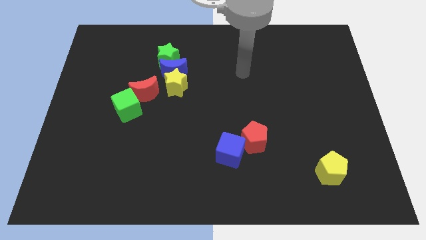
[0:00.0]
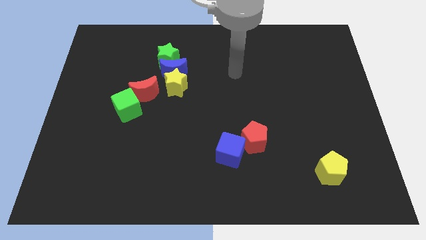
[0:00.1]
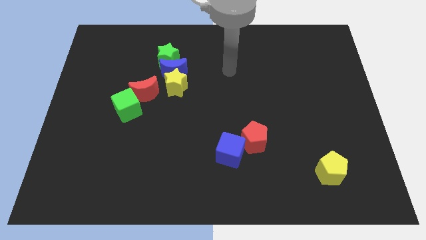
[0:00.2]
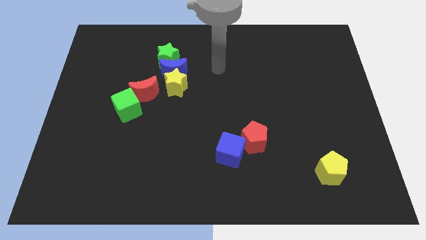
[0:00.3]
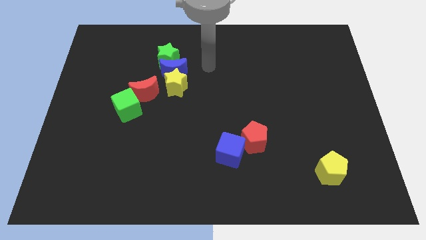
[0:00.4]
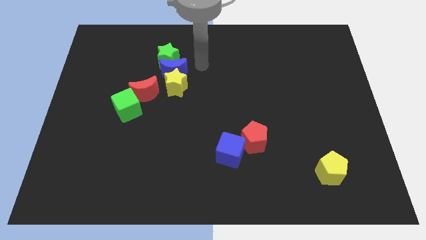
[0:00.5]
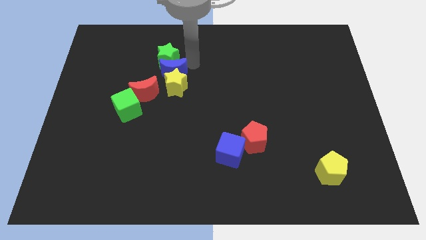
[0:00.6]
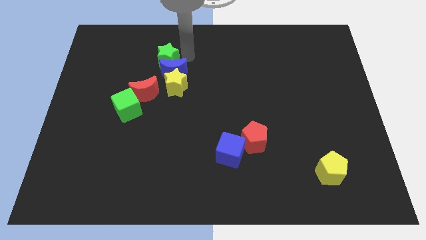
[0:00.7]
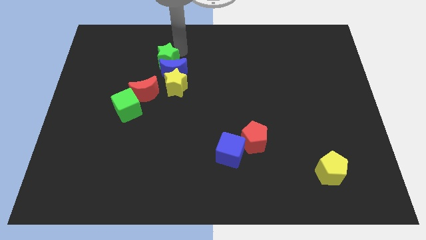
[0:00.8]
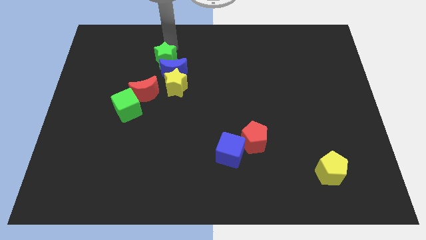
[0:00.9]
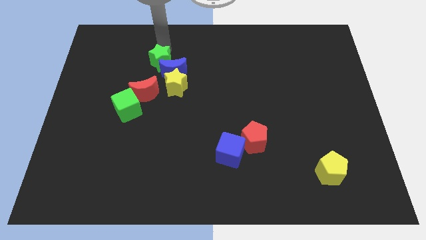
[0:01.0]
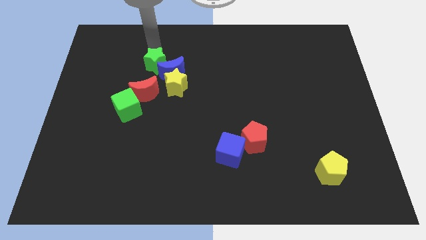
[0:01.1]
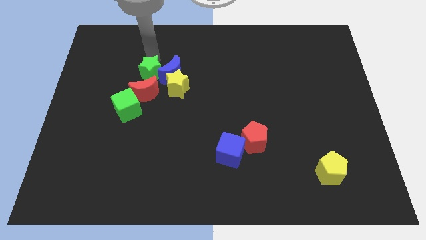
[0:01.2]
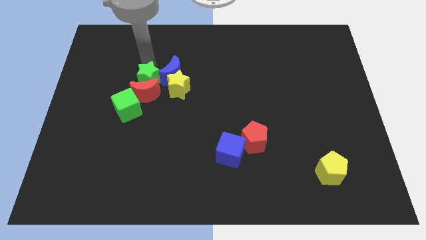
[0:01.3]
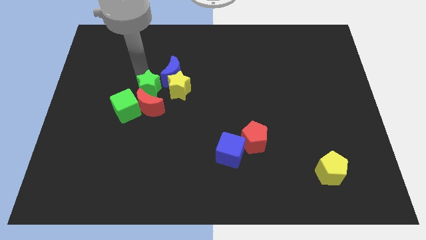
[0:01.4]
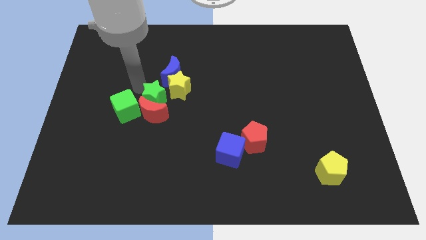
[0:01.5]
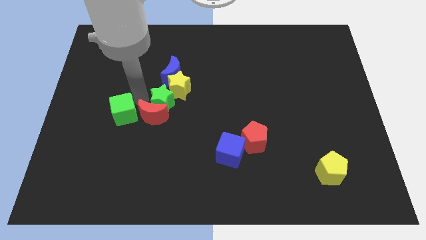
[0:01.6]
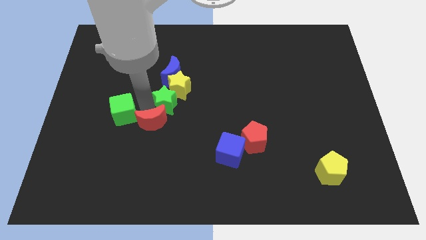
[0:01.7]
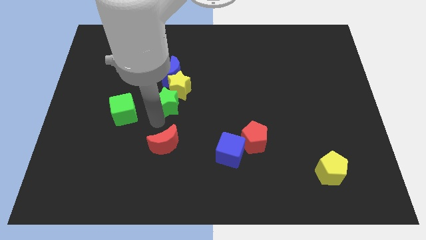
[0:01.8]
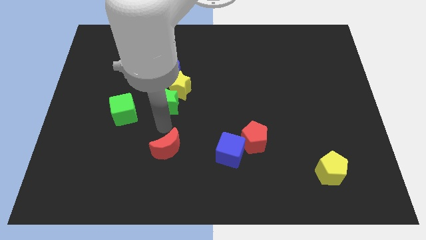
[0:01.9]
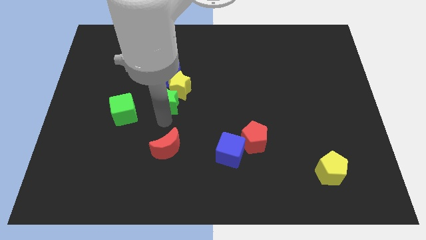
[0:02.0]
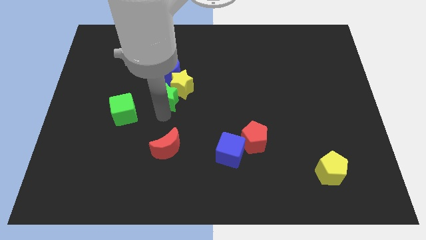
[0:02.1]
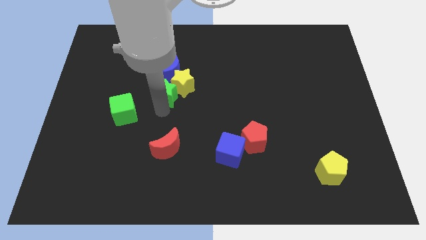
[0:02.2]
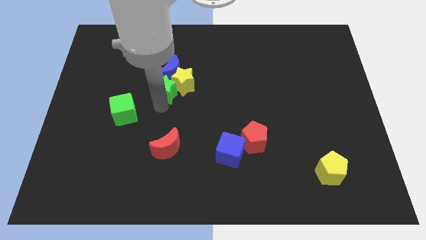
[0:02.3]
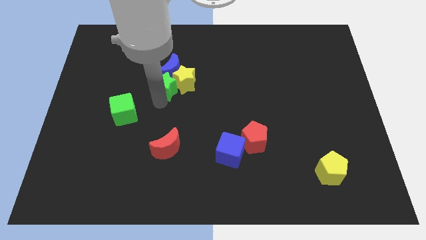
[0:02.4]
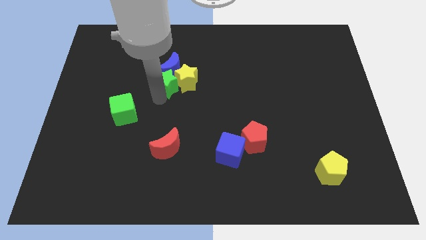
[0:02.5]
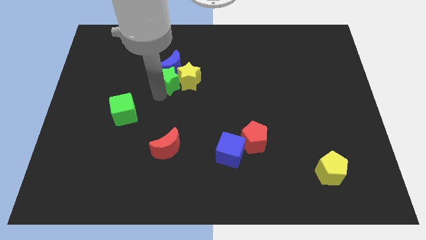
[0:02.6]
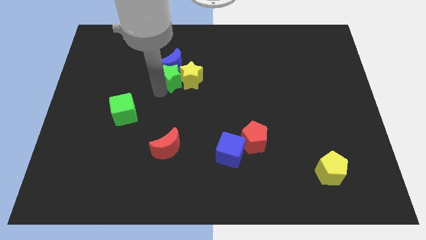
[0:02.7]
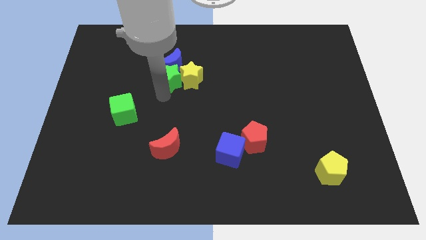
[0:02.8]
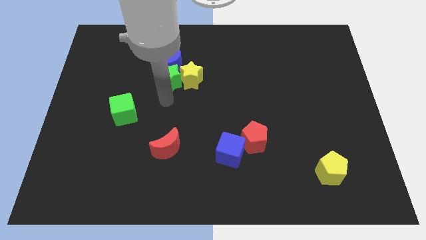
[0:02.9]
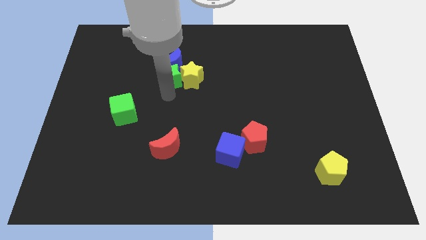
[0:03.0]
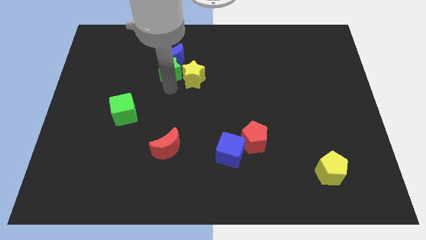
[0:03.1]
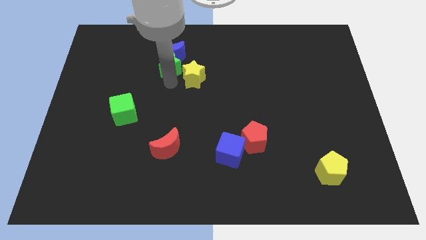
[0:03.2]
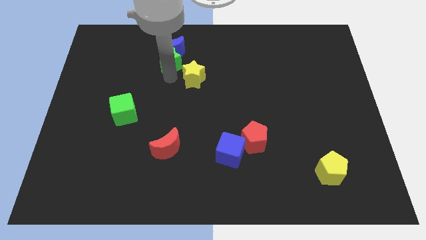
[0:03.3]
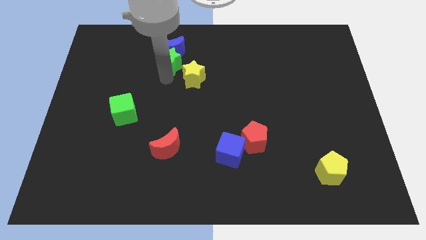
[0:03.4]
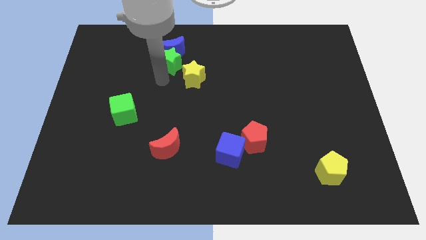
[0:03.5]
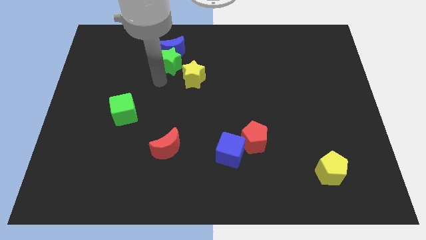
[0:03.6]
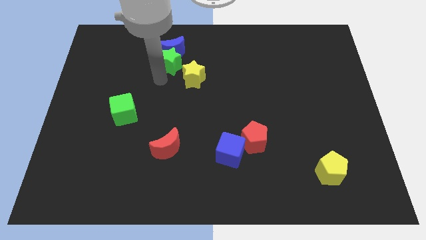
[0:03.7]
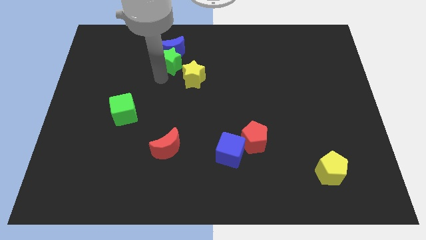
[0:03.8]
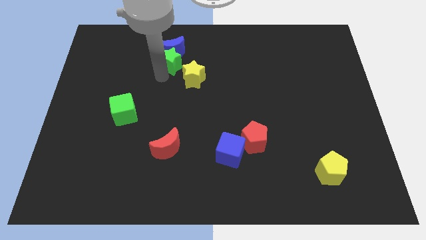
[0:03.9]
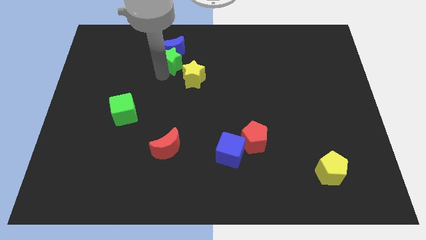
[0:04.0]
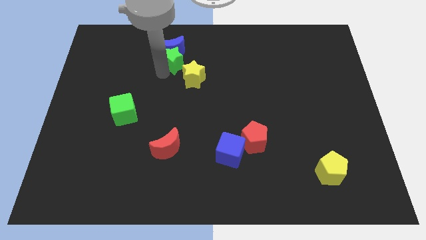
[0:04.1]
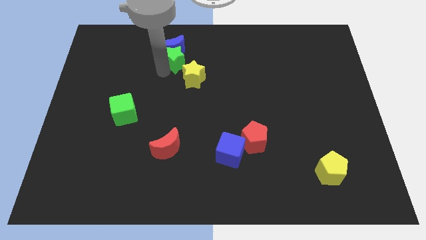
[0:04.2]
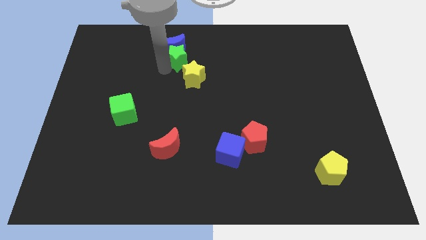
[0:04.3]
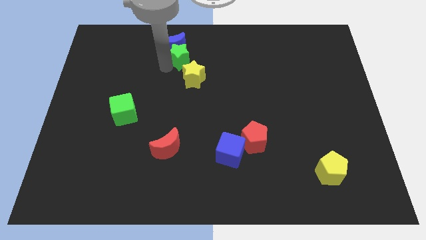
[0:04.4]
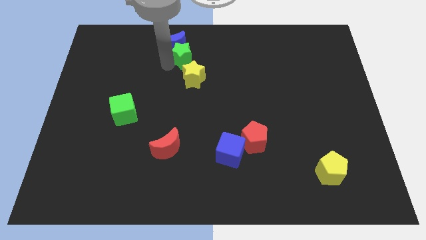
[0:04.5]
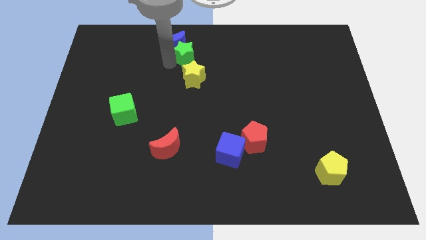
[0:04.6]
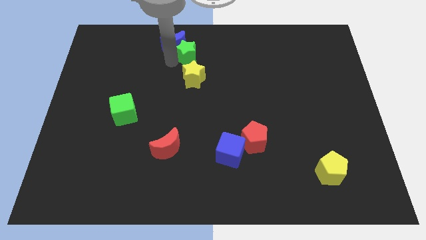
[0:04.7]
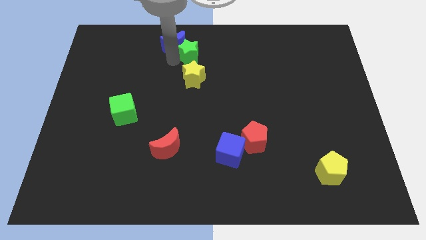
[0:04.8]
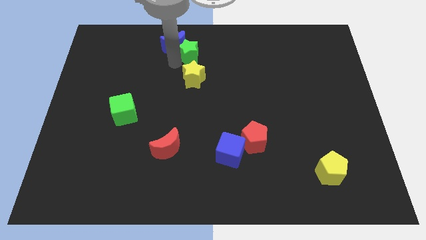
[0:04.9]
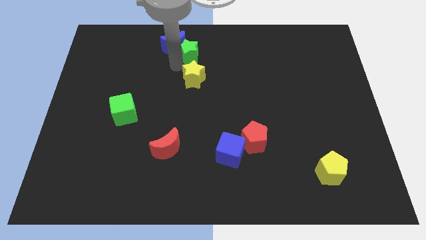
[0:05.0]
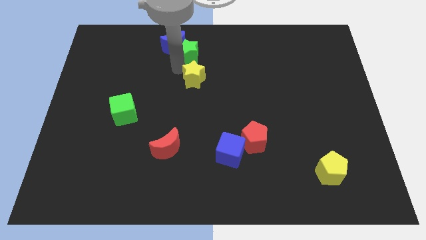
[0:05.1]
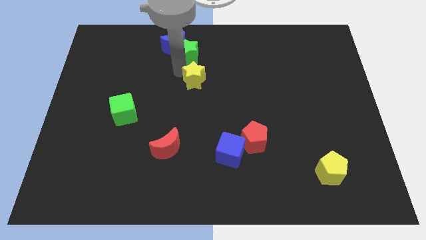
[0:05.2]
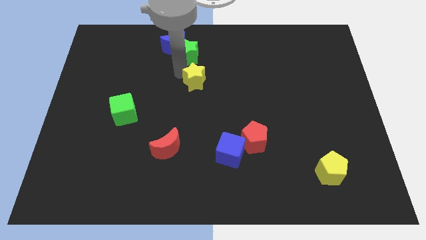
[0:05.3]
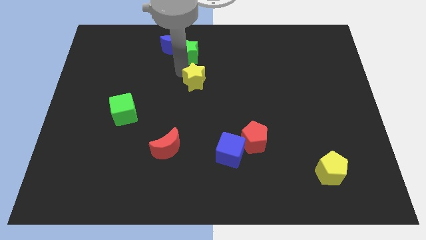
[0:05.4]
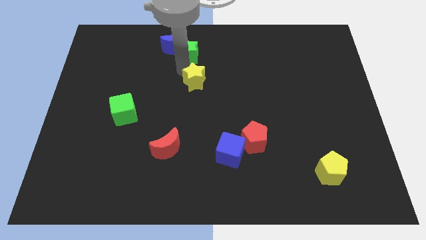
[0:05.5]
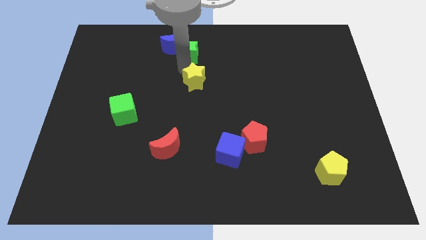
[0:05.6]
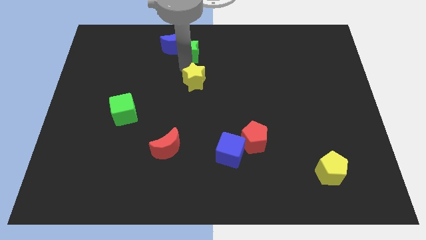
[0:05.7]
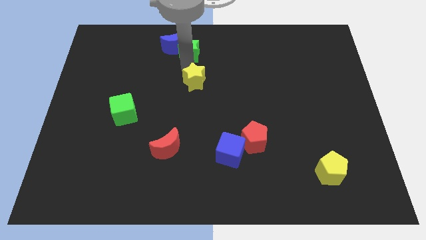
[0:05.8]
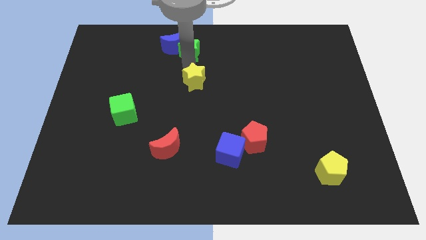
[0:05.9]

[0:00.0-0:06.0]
put the green star to the towards your base

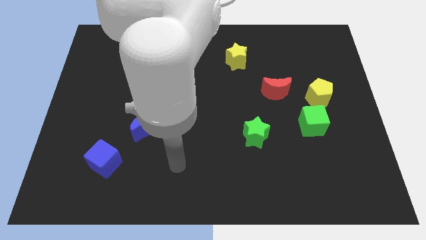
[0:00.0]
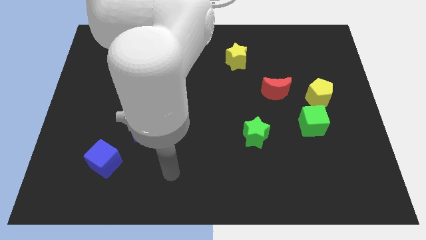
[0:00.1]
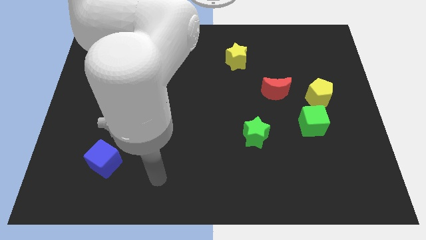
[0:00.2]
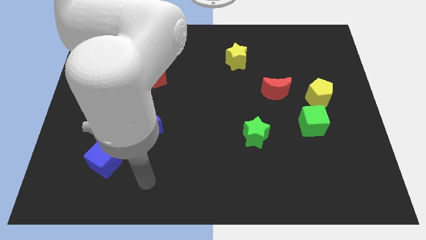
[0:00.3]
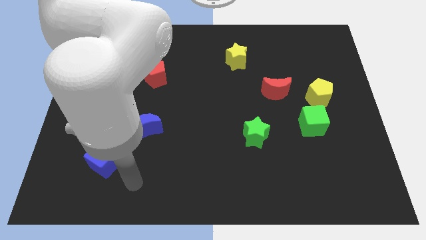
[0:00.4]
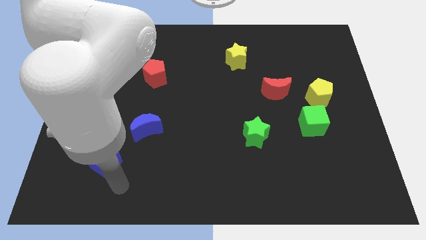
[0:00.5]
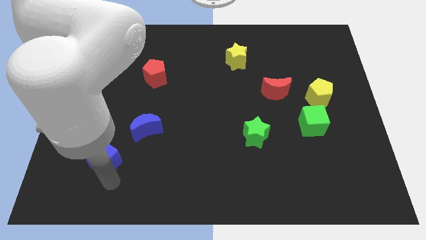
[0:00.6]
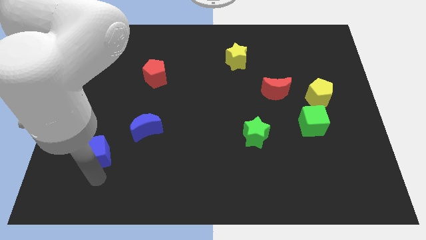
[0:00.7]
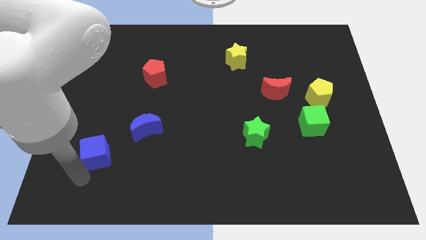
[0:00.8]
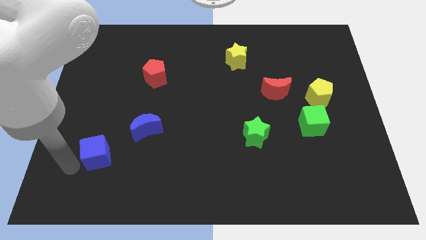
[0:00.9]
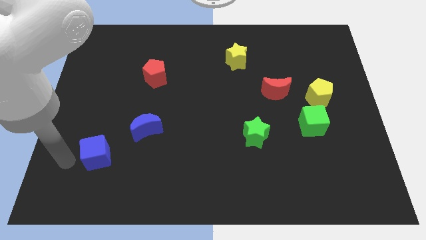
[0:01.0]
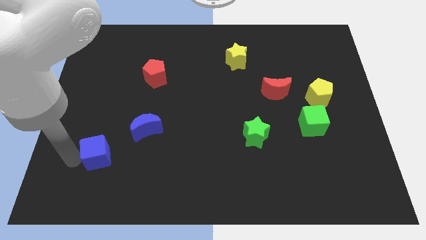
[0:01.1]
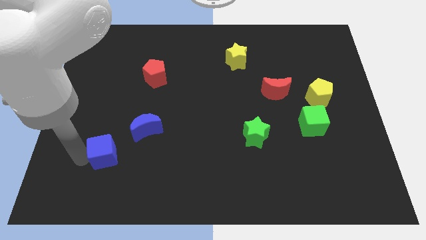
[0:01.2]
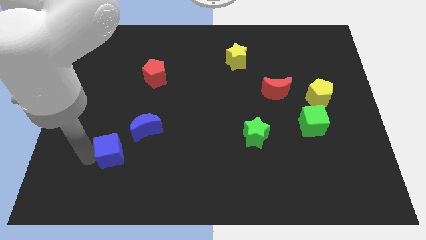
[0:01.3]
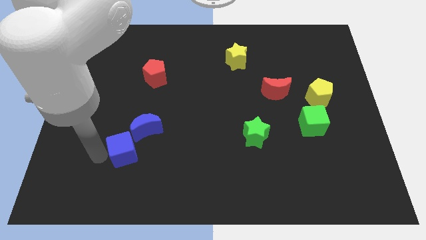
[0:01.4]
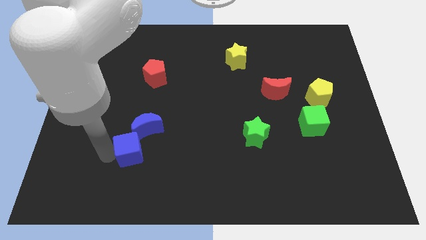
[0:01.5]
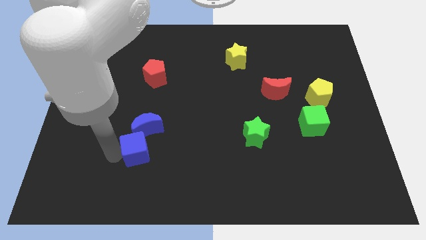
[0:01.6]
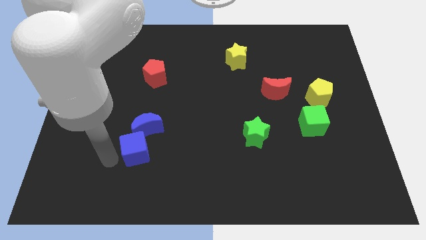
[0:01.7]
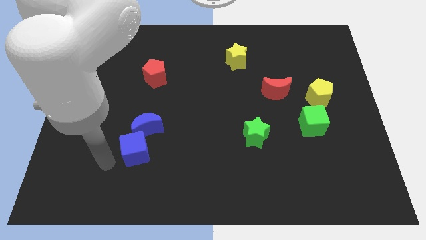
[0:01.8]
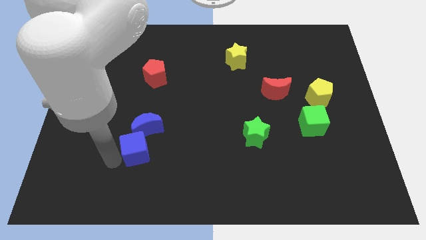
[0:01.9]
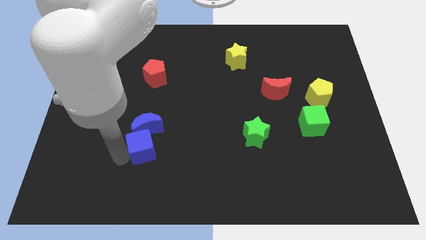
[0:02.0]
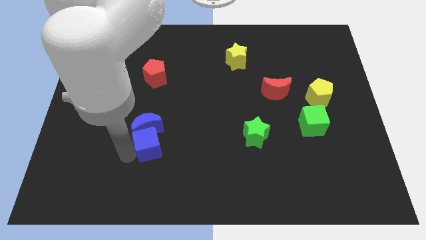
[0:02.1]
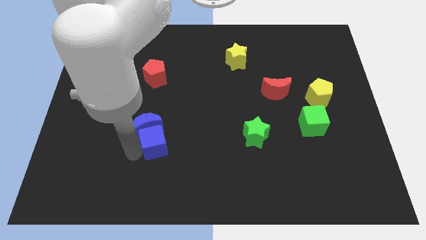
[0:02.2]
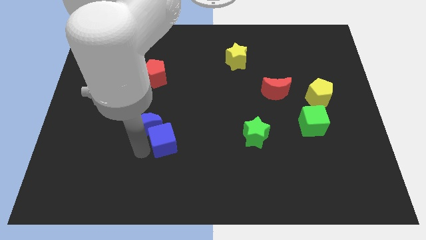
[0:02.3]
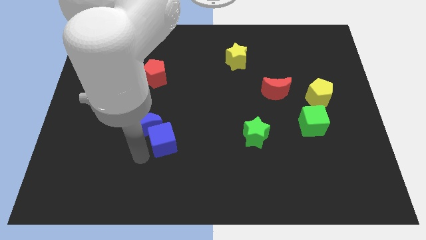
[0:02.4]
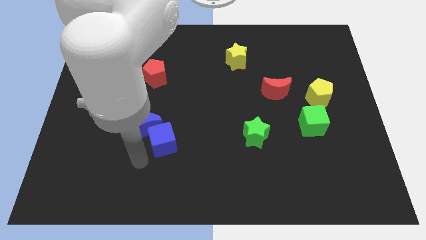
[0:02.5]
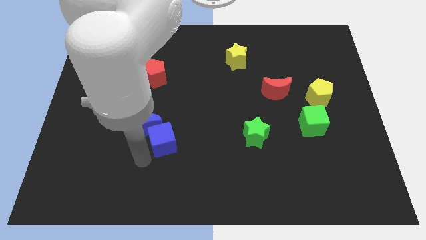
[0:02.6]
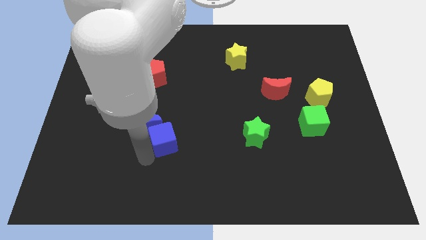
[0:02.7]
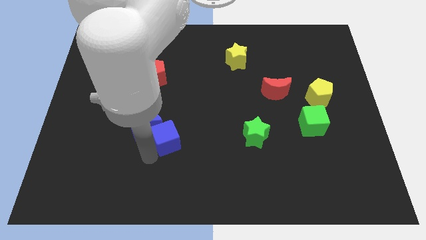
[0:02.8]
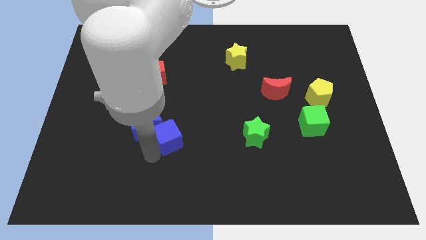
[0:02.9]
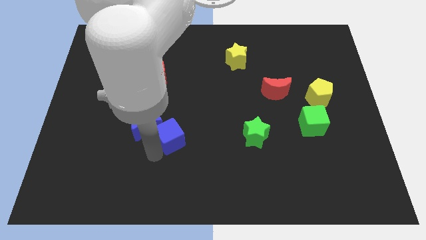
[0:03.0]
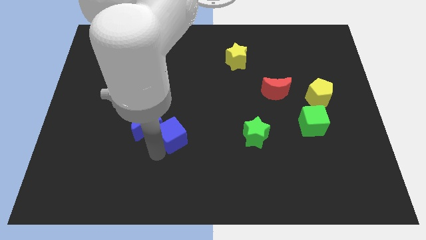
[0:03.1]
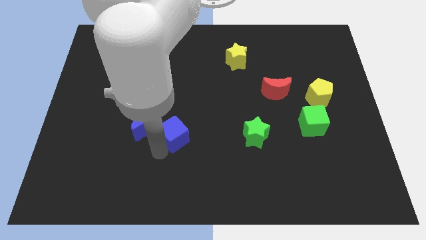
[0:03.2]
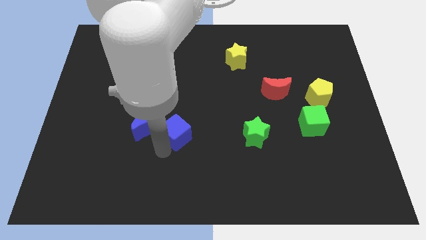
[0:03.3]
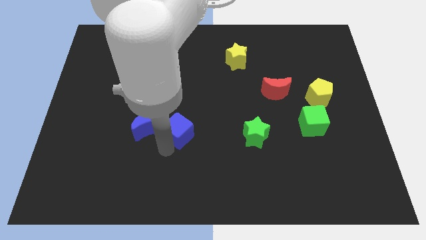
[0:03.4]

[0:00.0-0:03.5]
push the blue cube to the center
